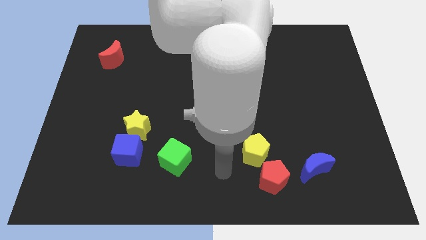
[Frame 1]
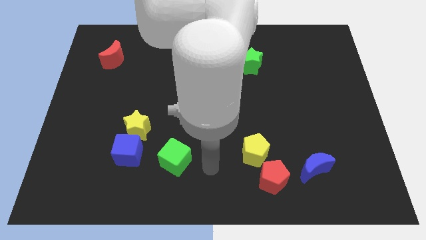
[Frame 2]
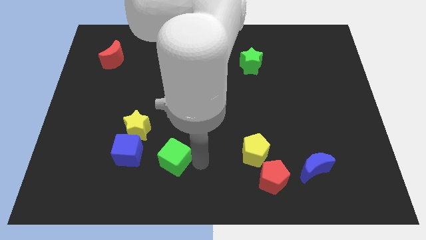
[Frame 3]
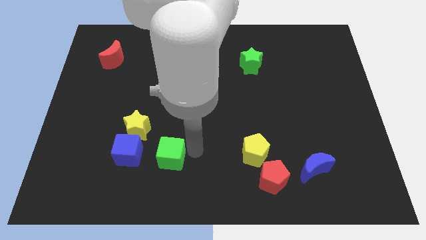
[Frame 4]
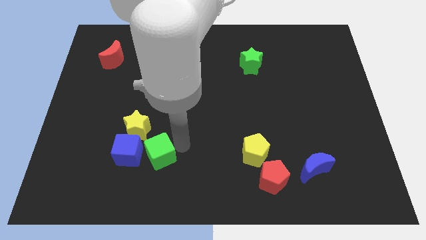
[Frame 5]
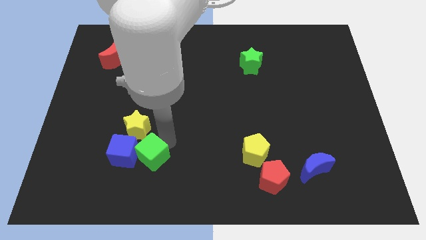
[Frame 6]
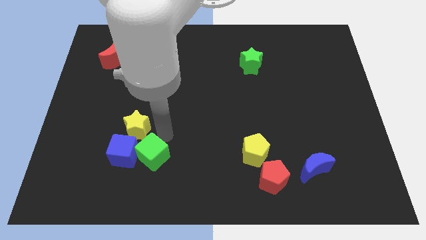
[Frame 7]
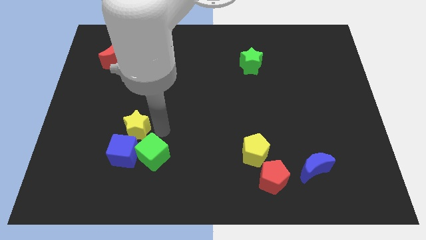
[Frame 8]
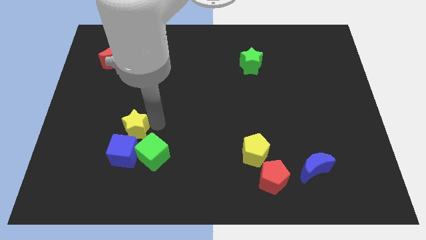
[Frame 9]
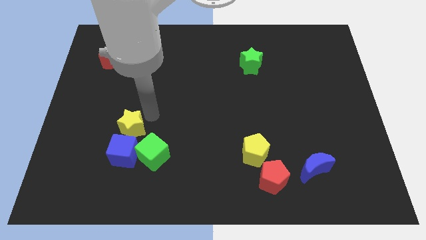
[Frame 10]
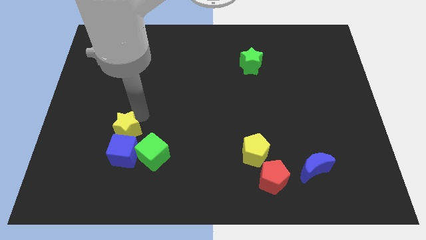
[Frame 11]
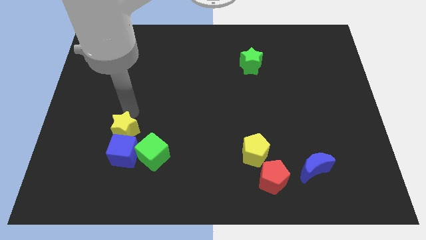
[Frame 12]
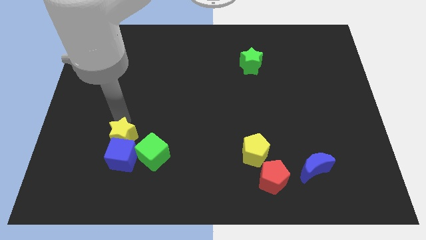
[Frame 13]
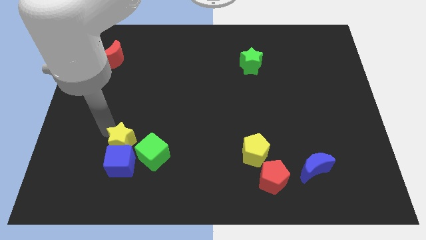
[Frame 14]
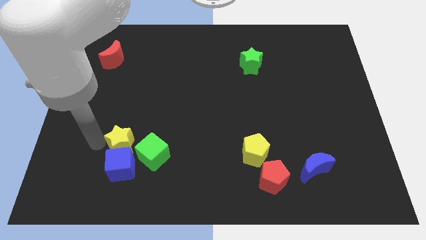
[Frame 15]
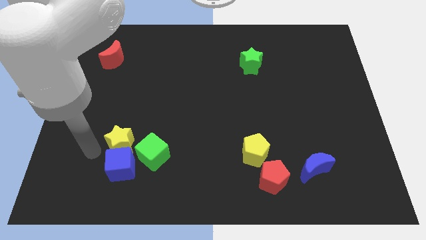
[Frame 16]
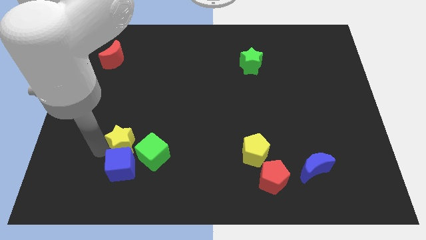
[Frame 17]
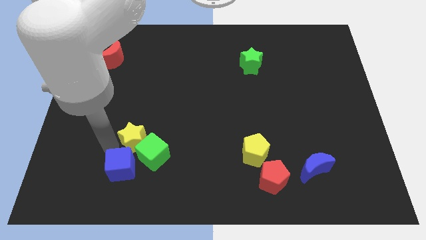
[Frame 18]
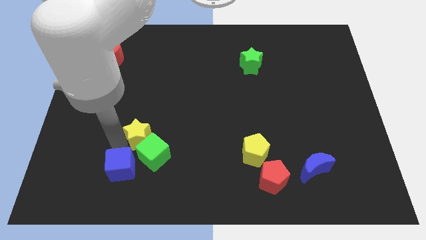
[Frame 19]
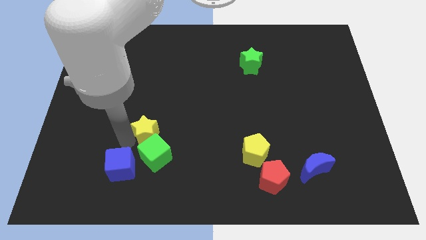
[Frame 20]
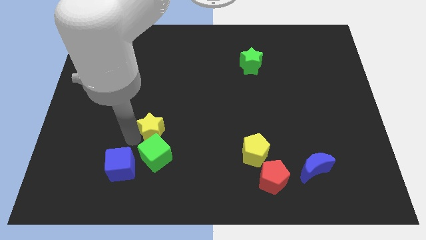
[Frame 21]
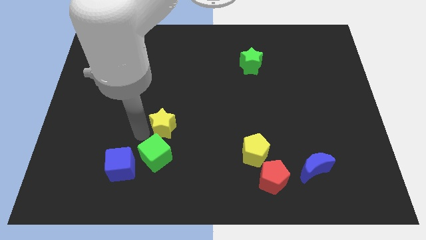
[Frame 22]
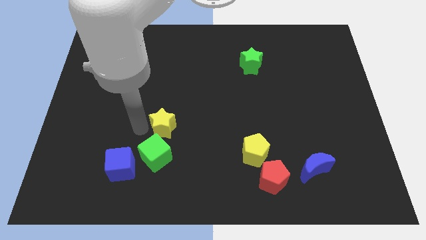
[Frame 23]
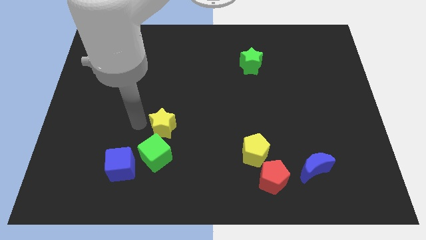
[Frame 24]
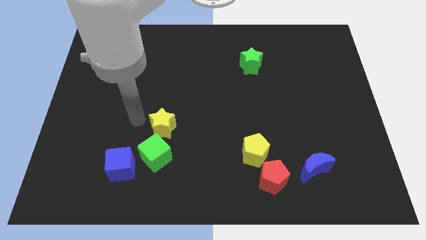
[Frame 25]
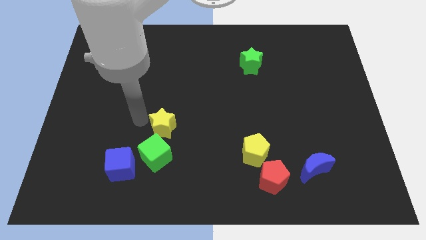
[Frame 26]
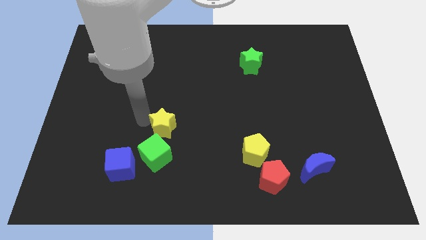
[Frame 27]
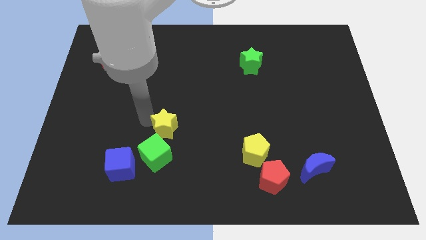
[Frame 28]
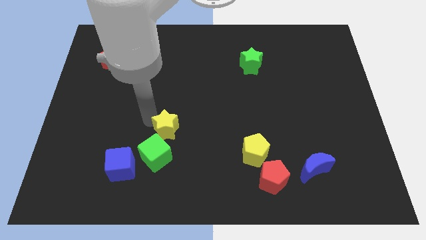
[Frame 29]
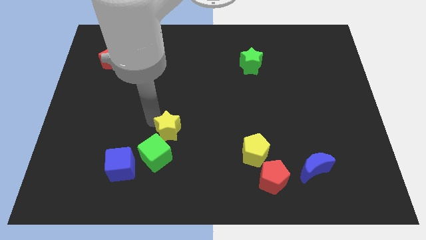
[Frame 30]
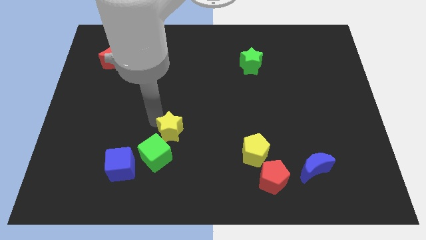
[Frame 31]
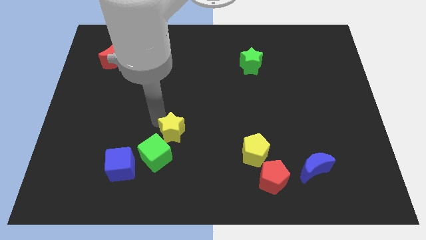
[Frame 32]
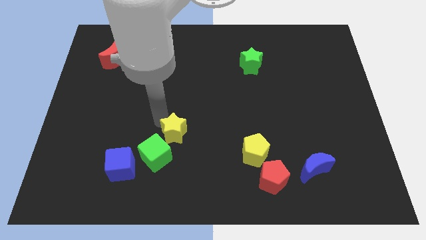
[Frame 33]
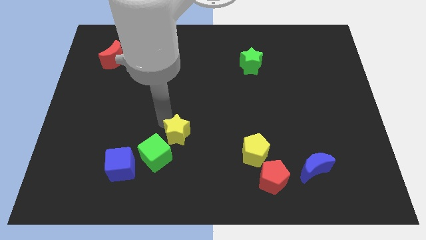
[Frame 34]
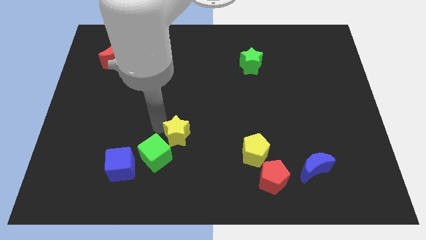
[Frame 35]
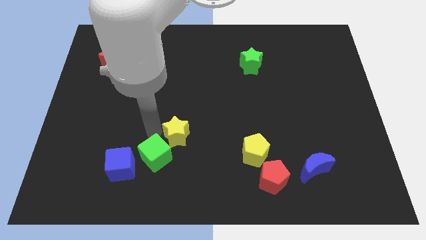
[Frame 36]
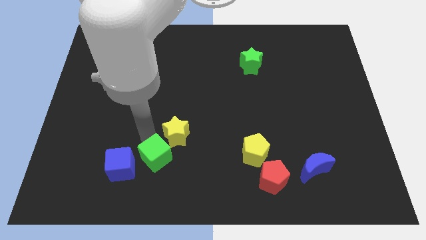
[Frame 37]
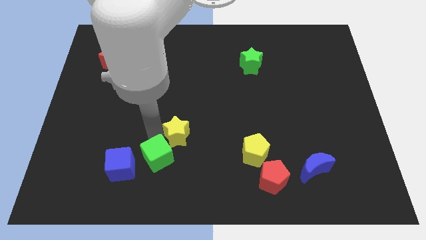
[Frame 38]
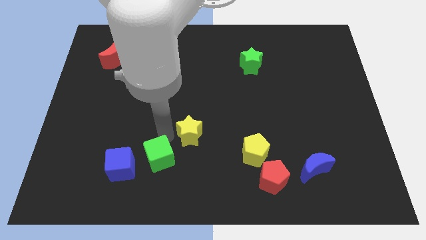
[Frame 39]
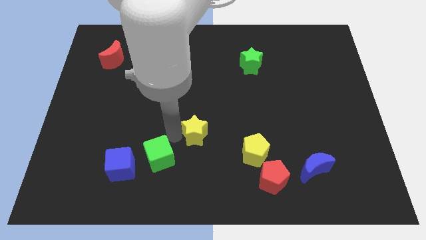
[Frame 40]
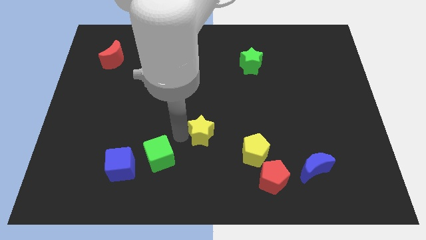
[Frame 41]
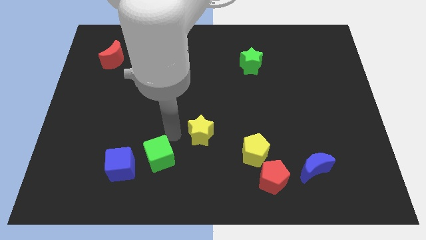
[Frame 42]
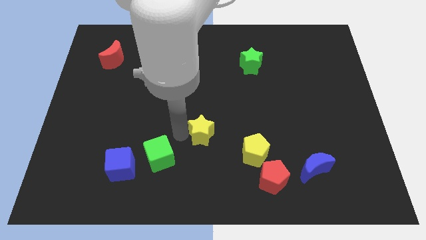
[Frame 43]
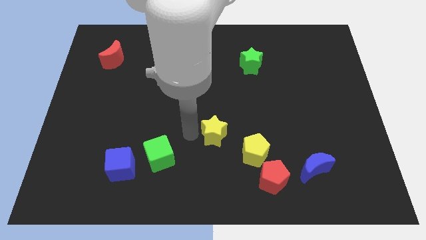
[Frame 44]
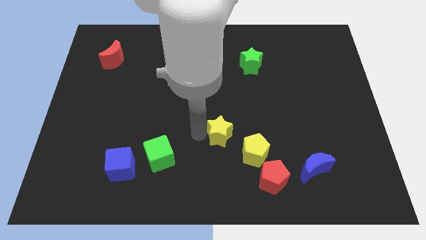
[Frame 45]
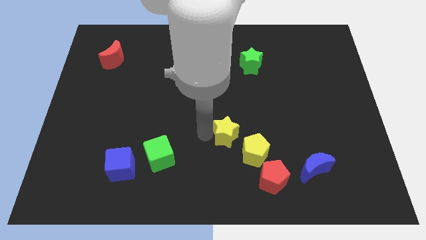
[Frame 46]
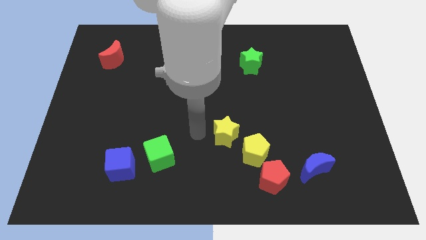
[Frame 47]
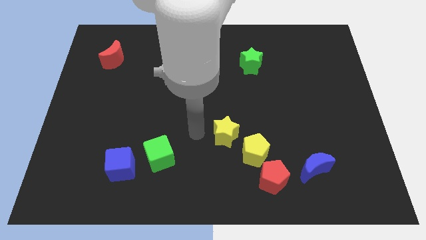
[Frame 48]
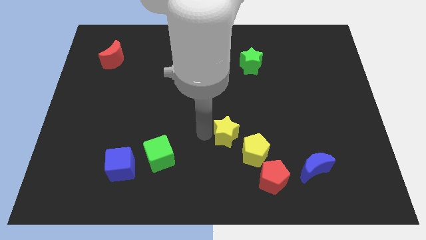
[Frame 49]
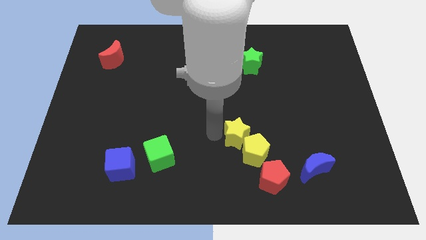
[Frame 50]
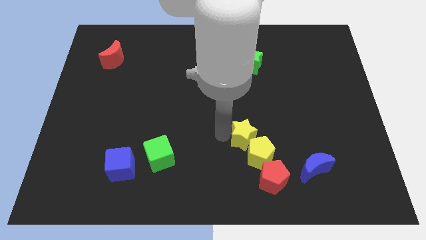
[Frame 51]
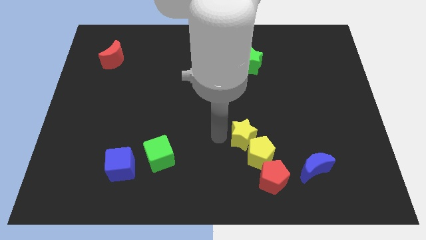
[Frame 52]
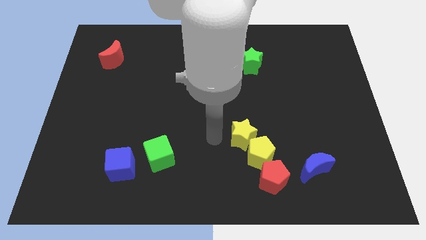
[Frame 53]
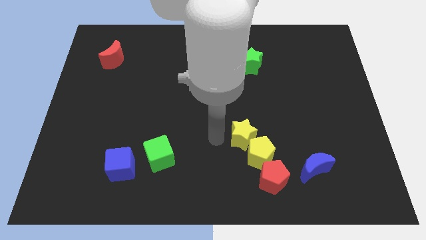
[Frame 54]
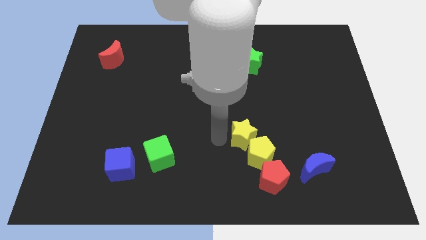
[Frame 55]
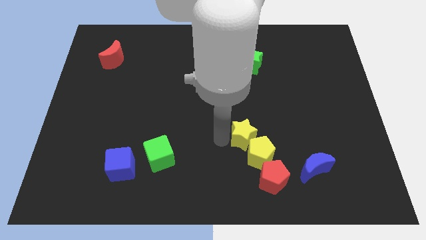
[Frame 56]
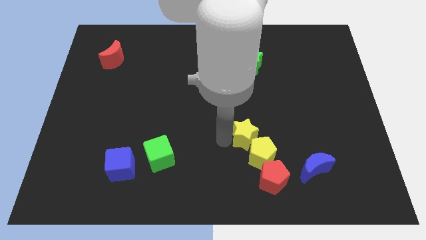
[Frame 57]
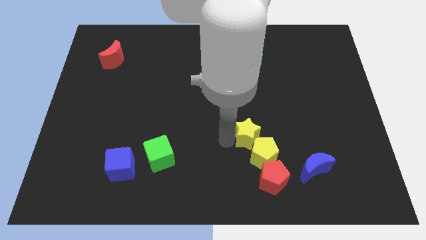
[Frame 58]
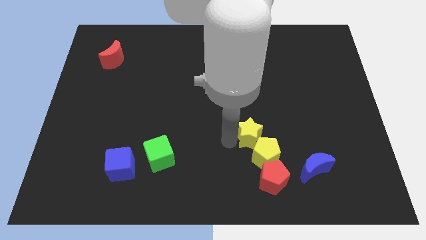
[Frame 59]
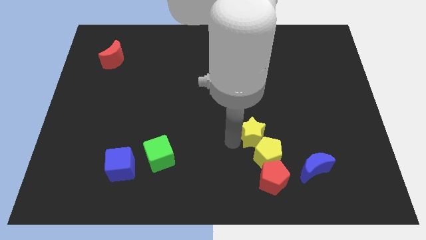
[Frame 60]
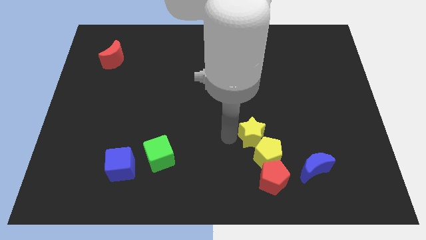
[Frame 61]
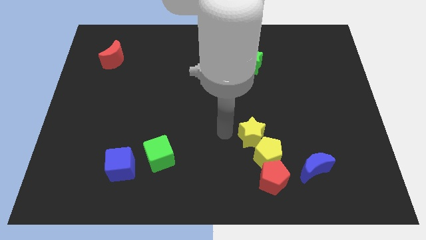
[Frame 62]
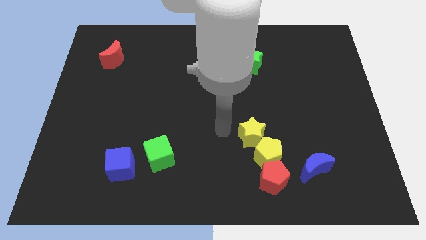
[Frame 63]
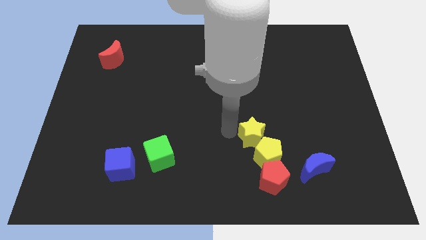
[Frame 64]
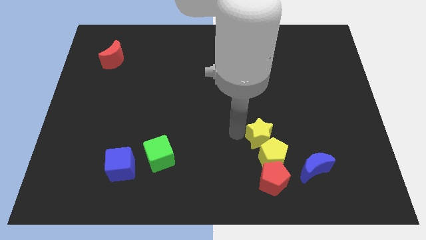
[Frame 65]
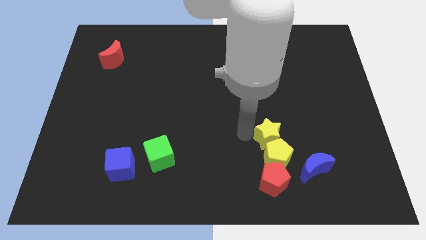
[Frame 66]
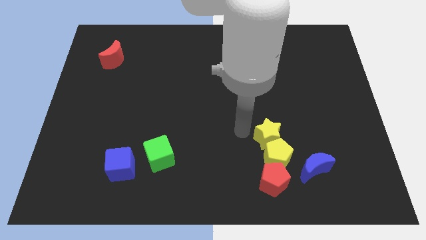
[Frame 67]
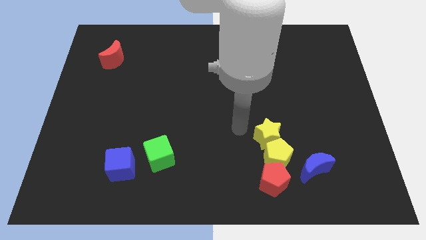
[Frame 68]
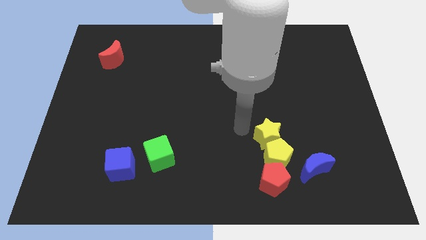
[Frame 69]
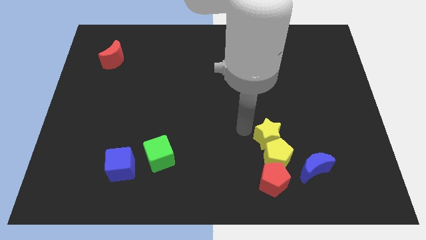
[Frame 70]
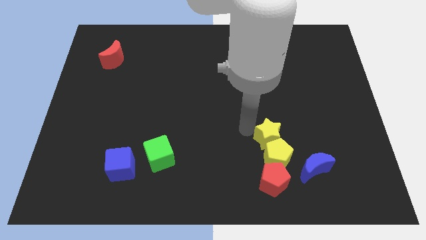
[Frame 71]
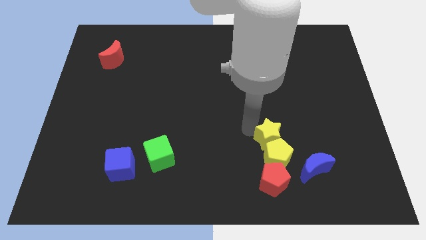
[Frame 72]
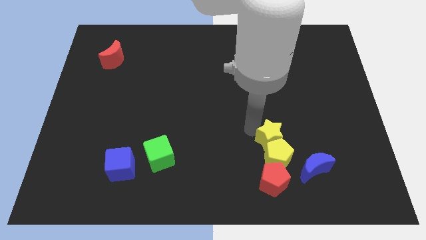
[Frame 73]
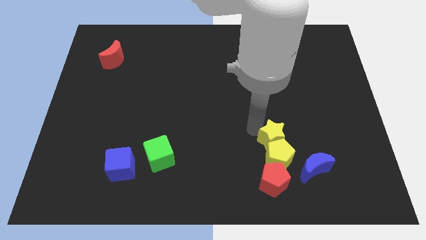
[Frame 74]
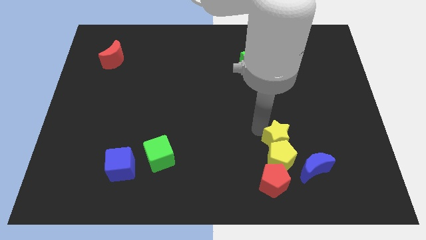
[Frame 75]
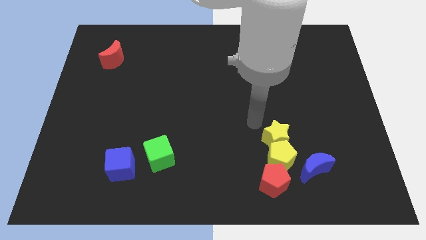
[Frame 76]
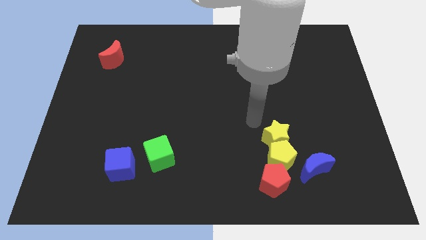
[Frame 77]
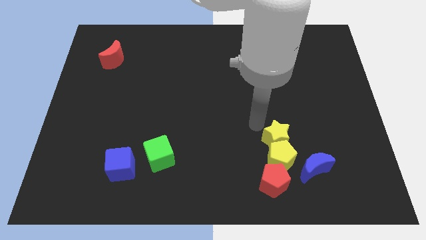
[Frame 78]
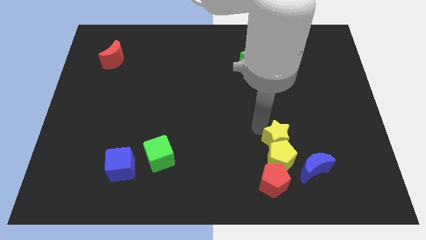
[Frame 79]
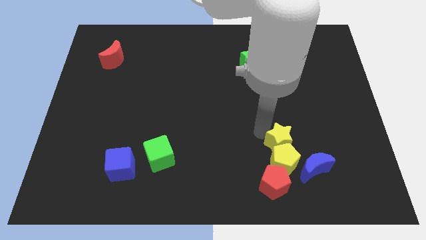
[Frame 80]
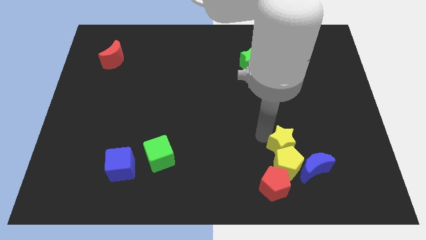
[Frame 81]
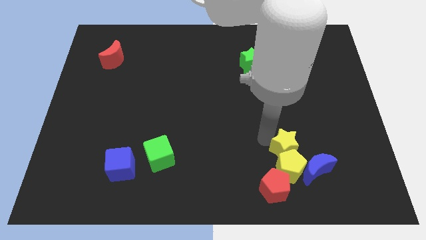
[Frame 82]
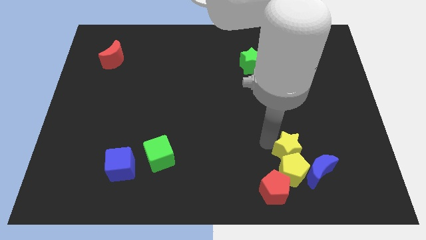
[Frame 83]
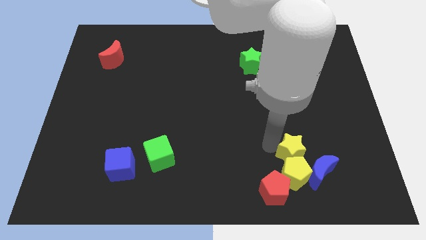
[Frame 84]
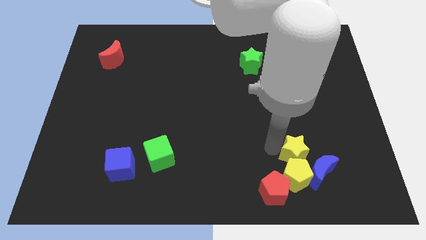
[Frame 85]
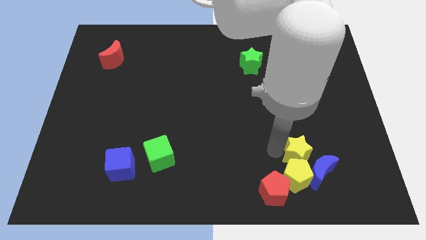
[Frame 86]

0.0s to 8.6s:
push the yellow star close to the blue moon
